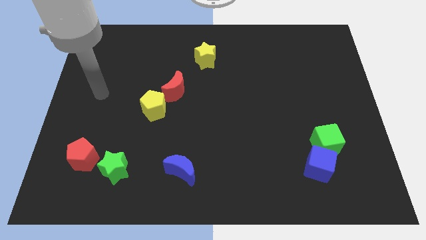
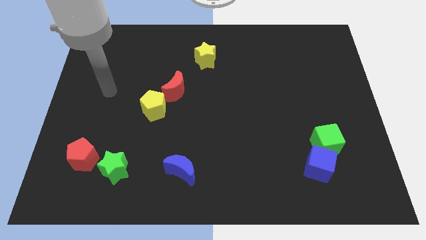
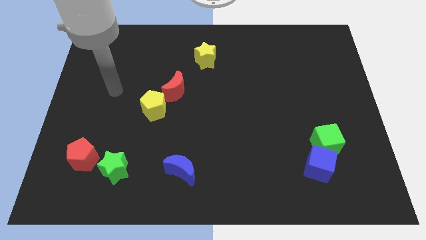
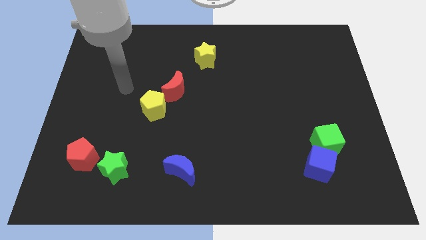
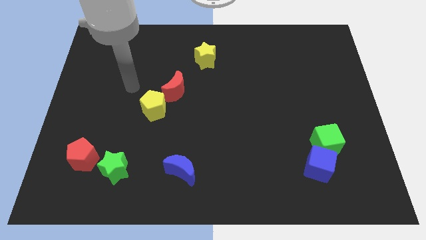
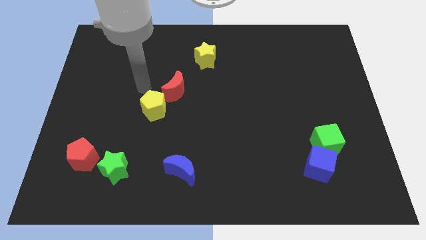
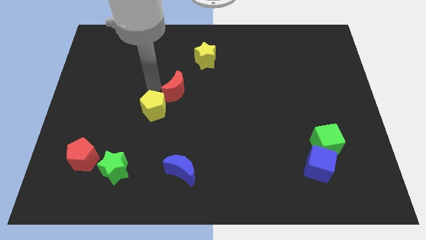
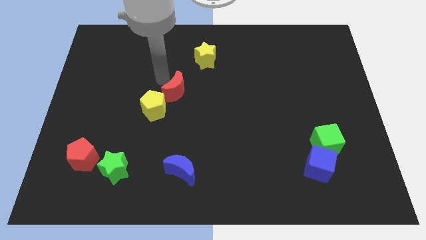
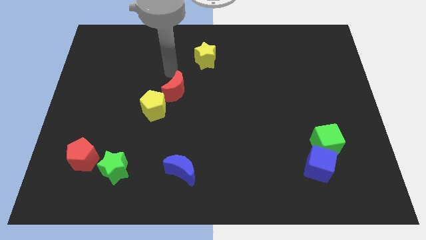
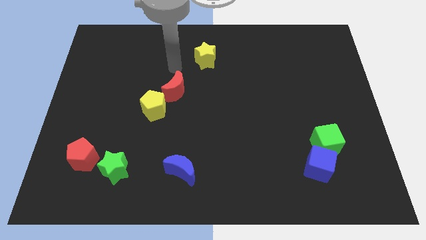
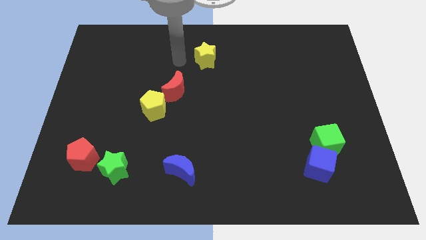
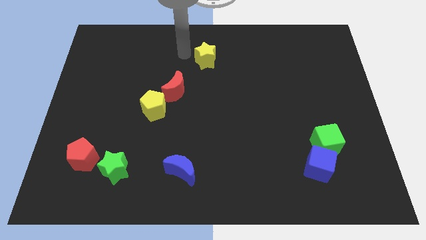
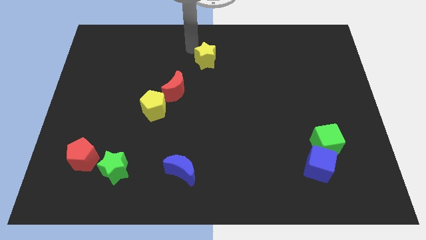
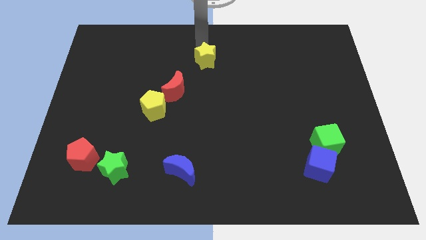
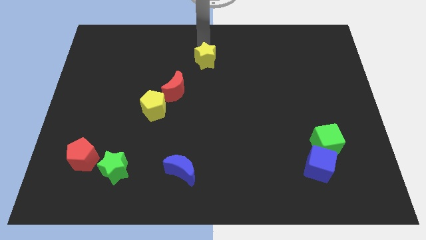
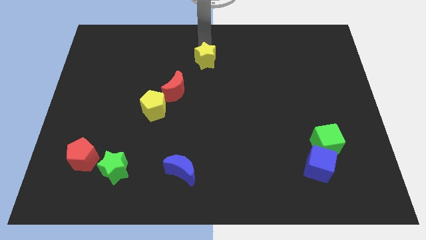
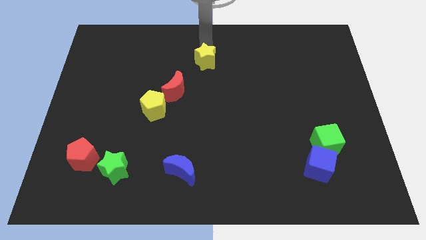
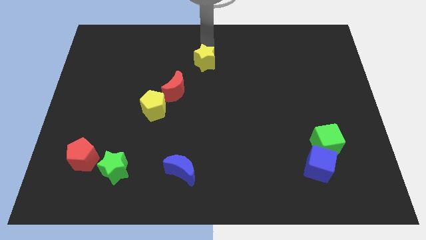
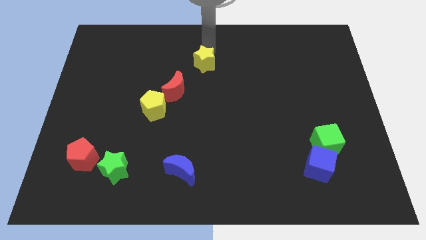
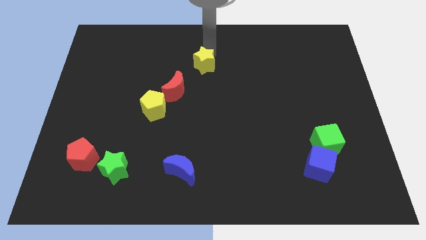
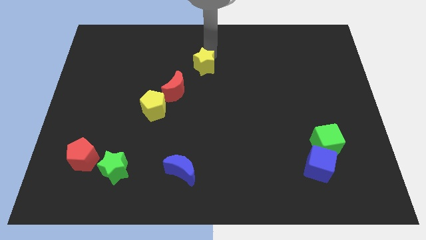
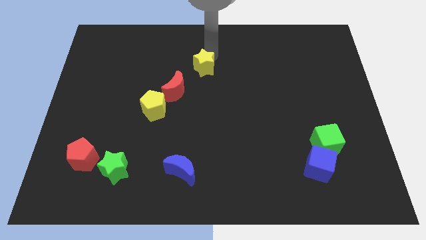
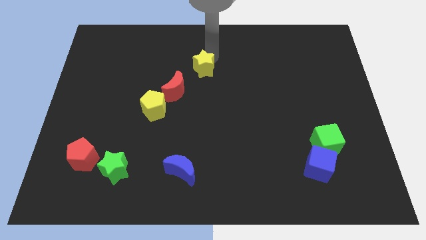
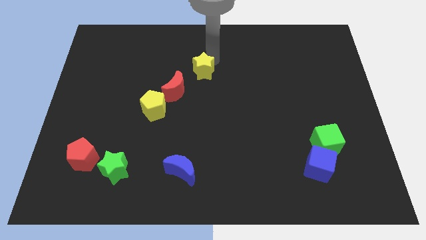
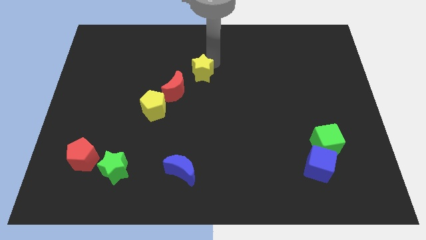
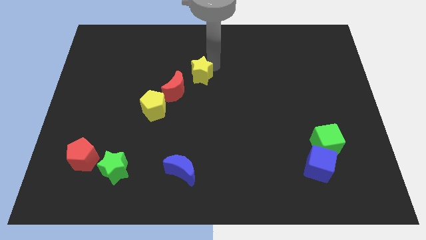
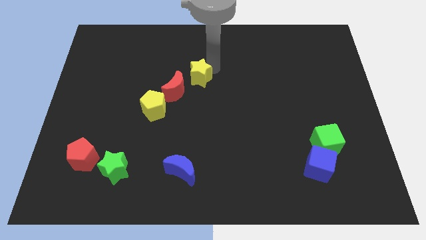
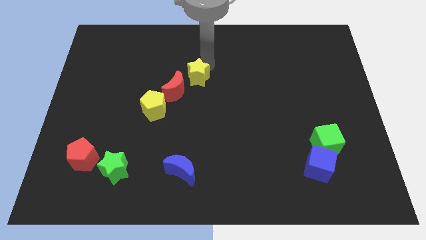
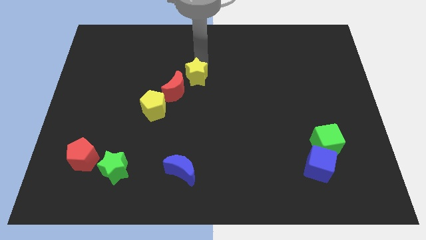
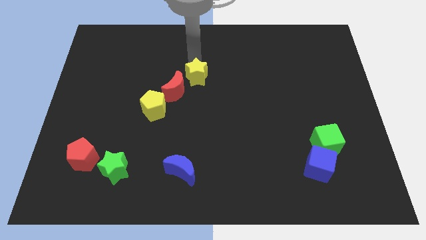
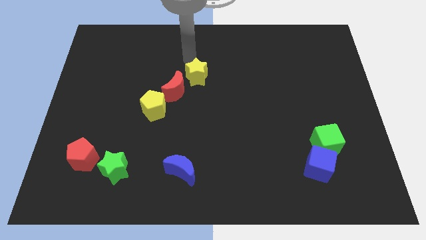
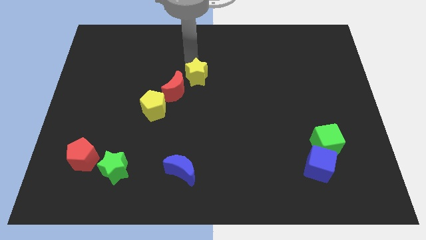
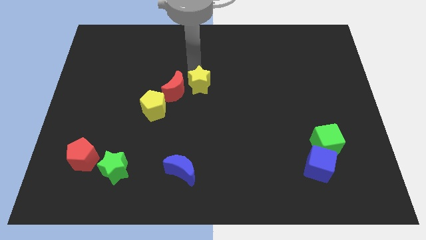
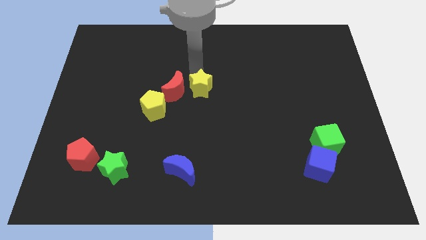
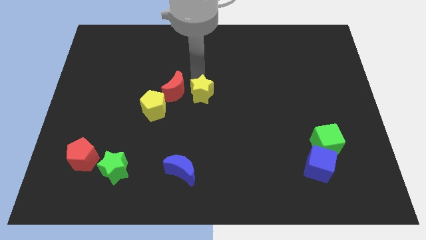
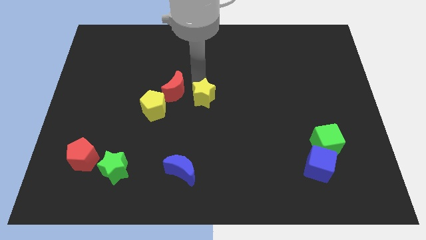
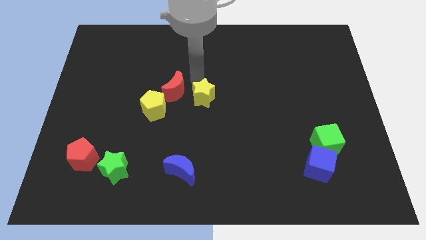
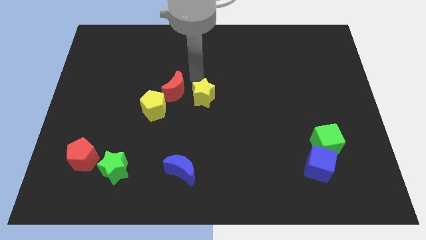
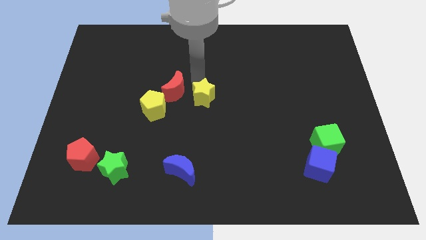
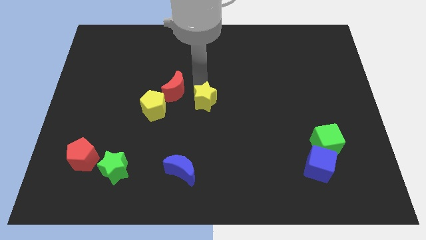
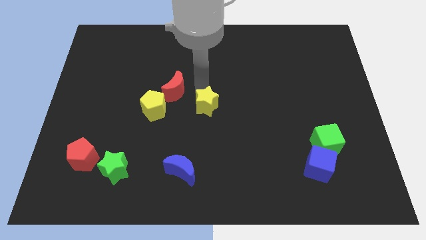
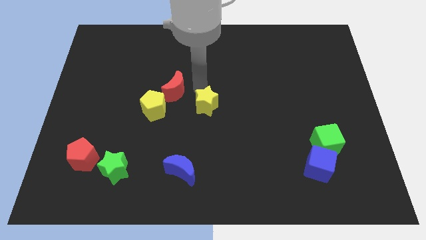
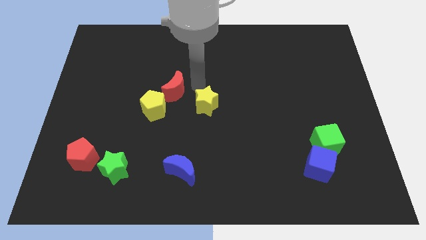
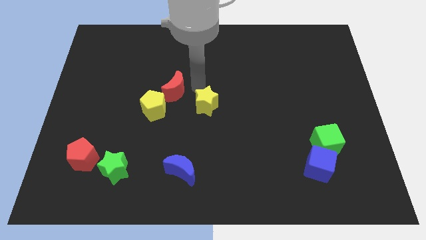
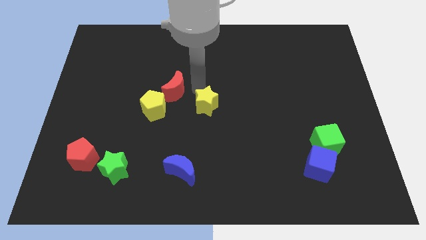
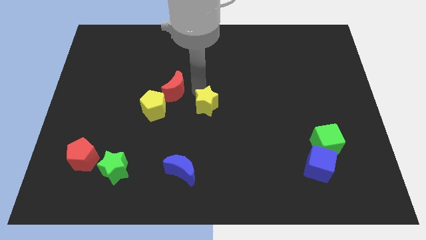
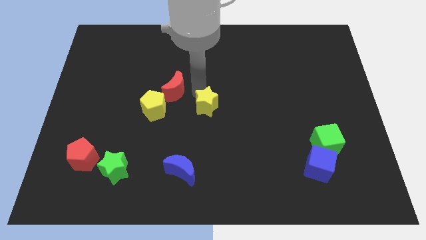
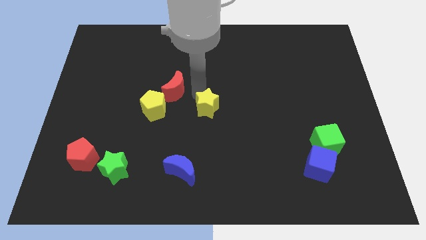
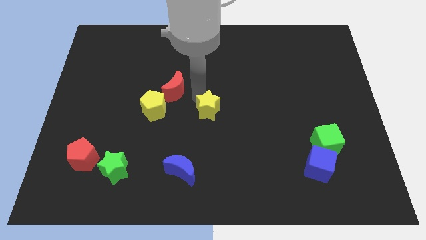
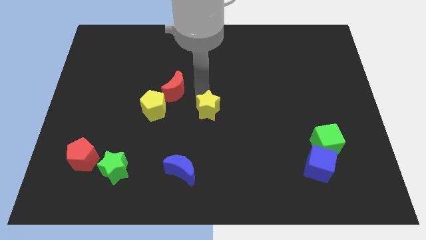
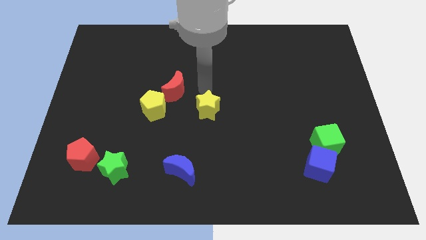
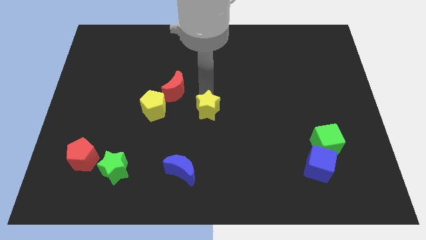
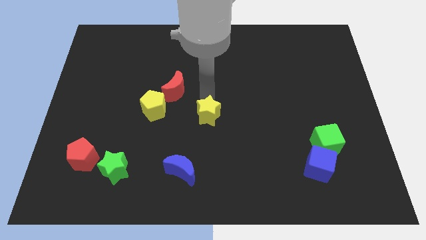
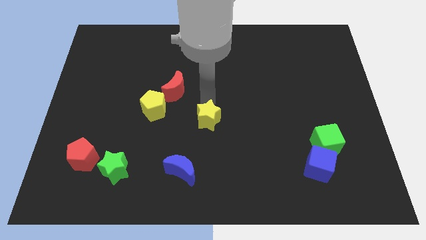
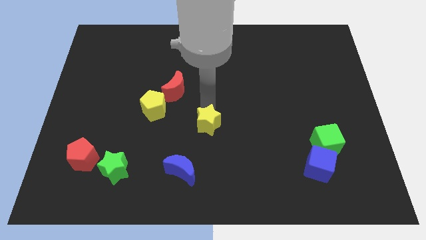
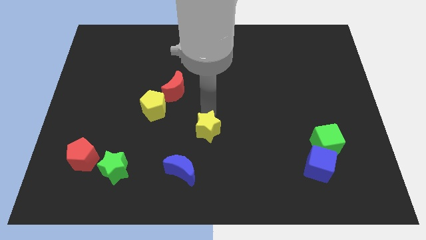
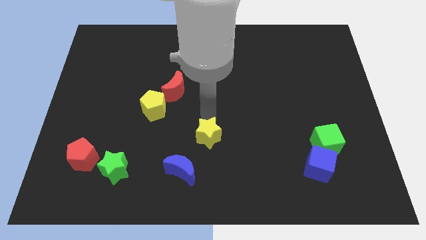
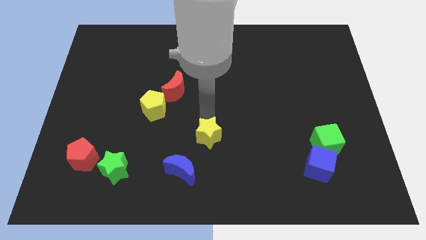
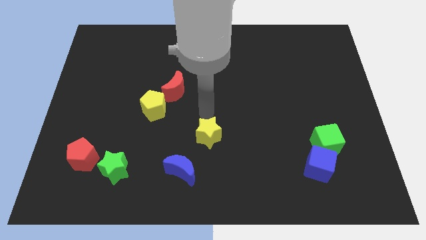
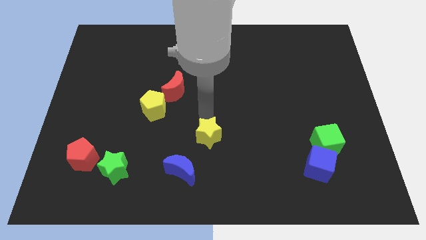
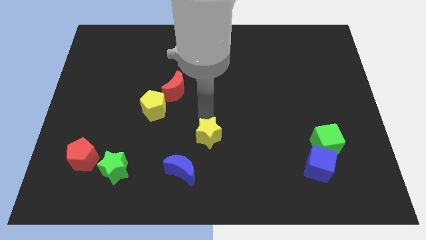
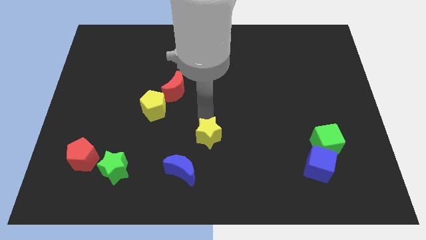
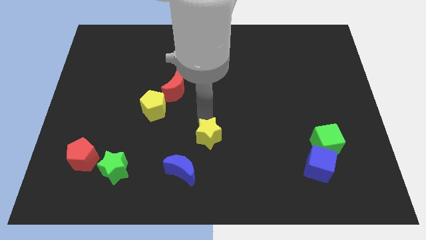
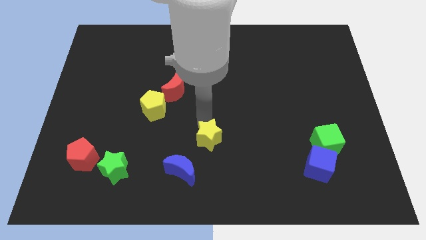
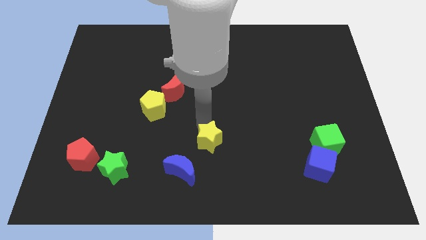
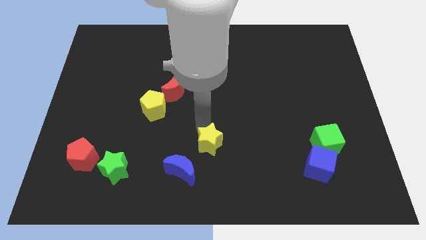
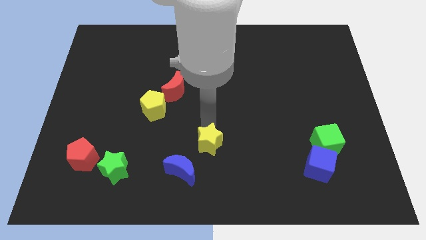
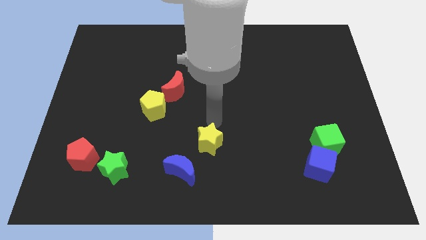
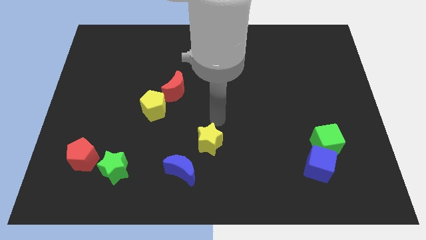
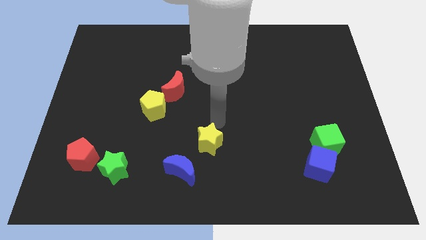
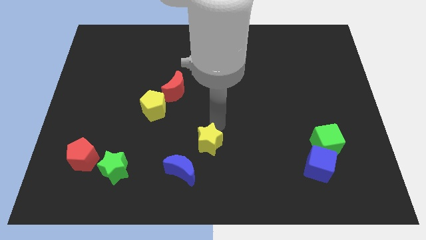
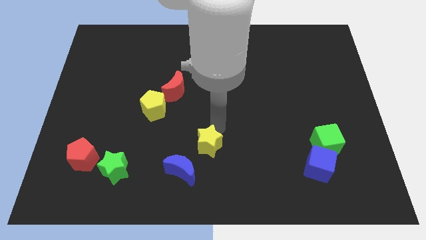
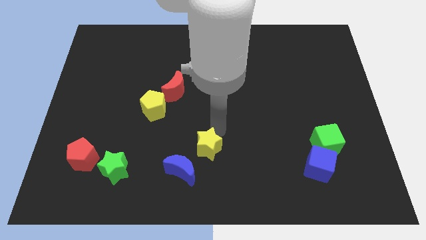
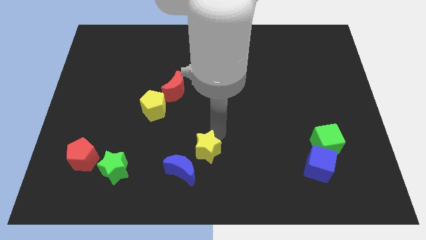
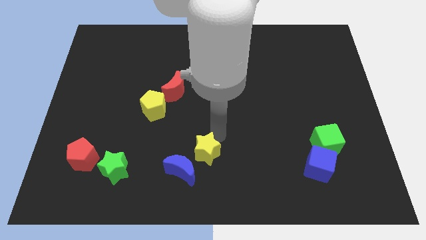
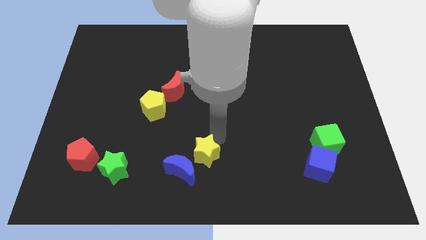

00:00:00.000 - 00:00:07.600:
put the yellow star to the bottom

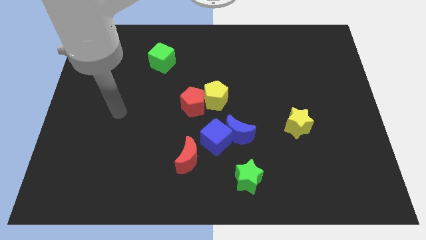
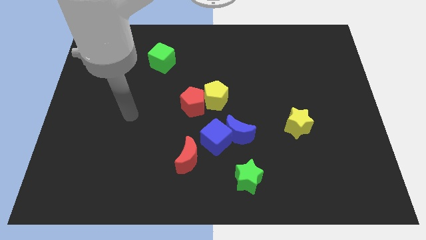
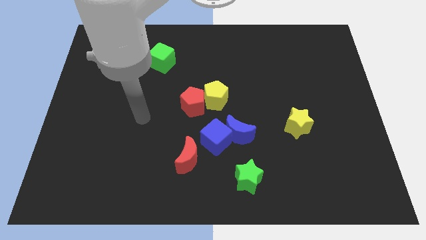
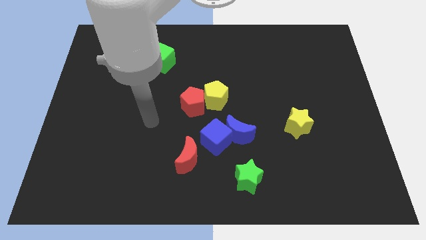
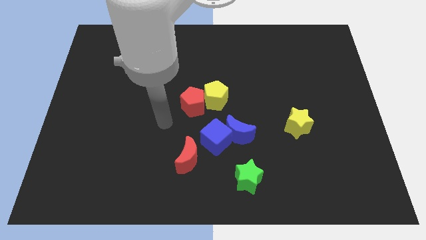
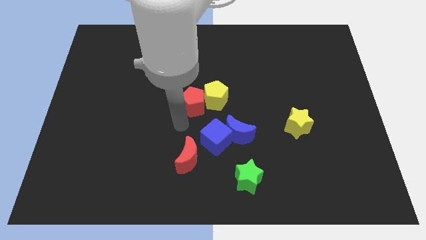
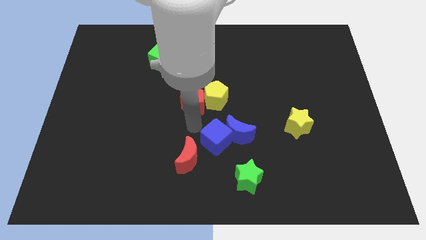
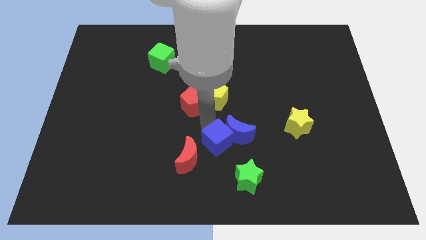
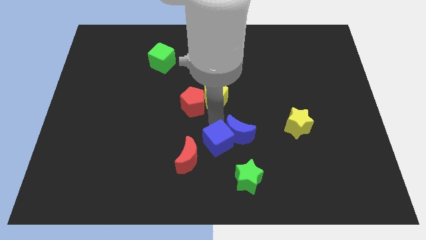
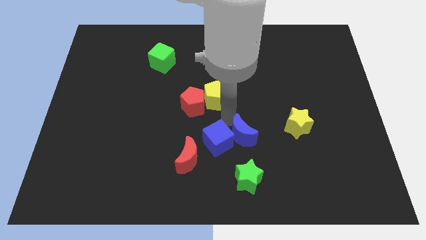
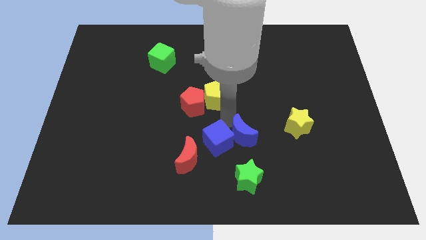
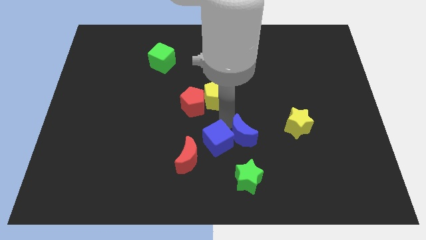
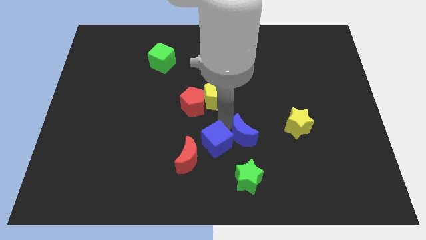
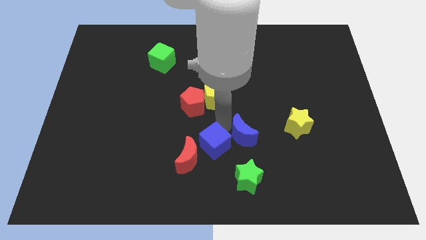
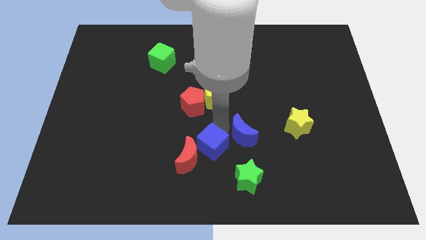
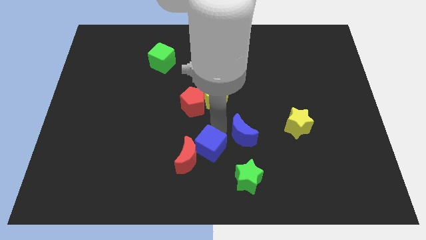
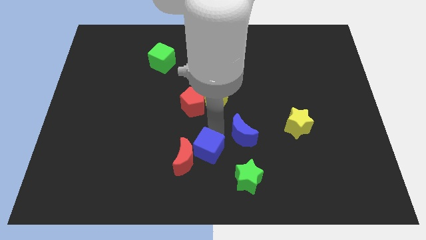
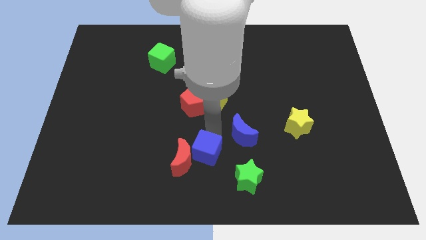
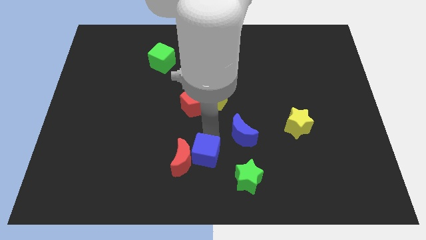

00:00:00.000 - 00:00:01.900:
put the blue cube to the bottom
